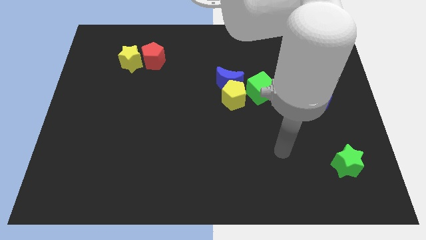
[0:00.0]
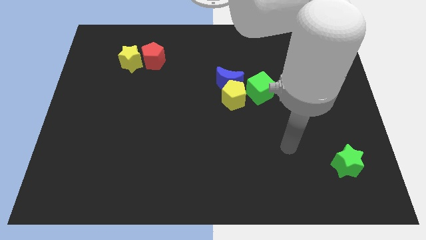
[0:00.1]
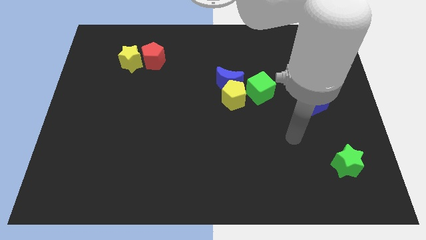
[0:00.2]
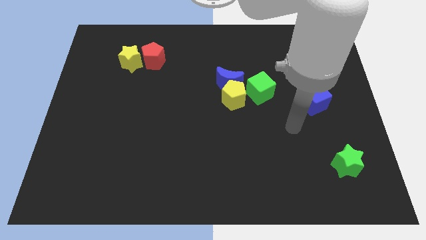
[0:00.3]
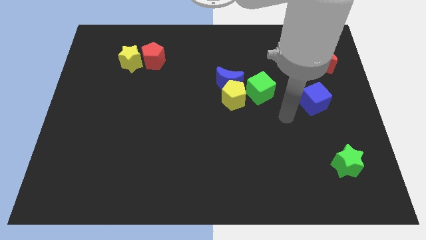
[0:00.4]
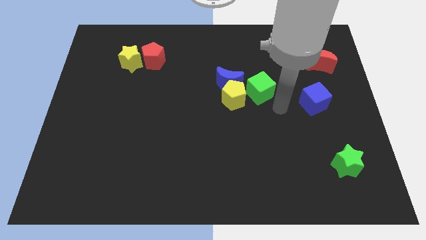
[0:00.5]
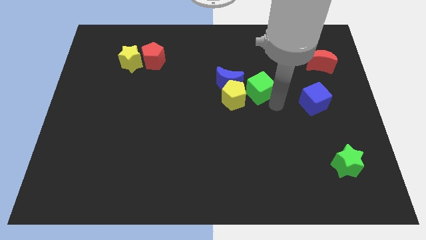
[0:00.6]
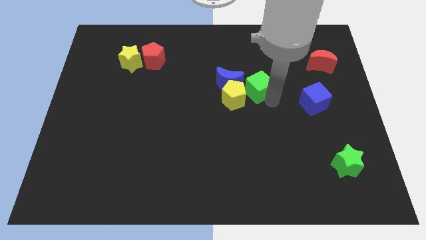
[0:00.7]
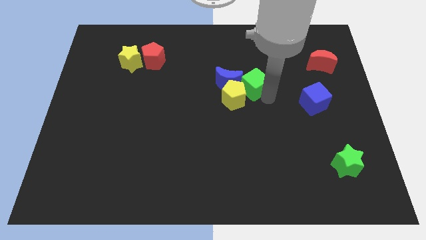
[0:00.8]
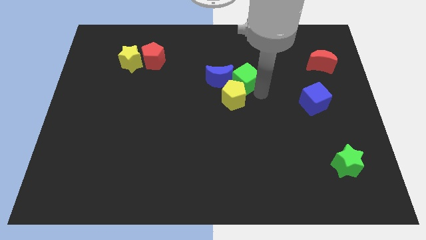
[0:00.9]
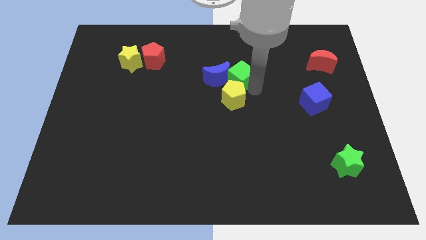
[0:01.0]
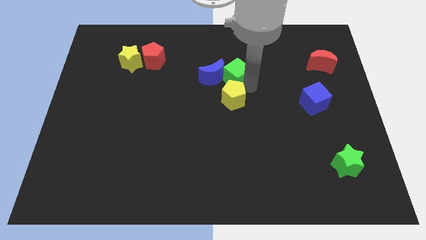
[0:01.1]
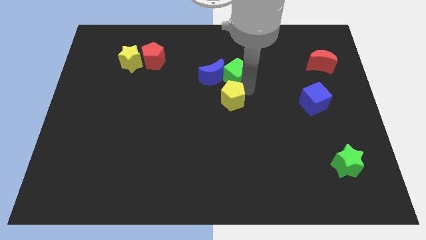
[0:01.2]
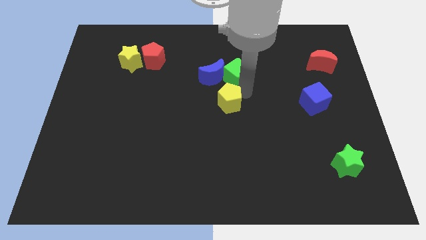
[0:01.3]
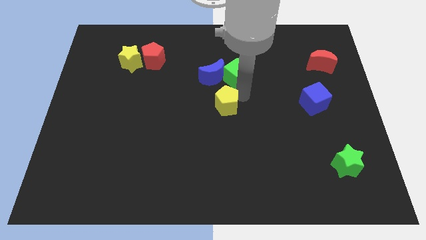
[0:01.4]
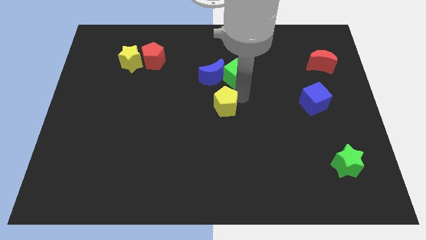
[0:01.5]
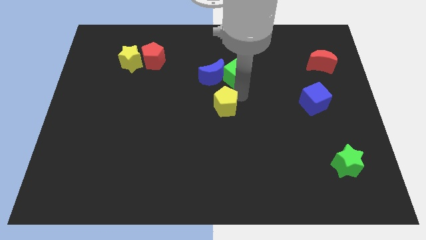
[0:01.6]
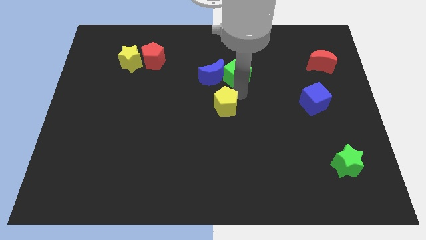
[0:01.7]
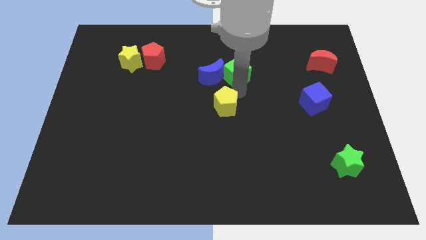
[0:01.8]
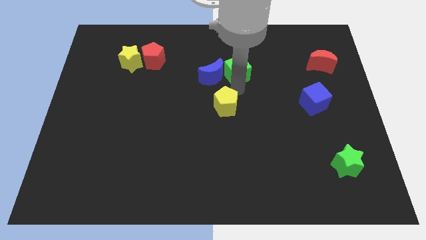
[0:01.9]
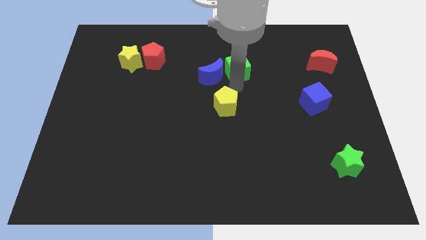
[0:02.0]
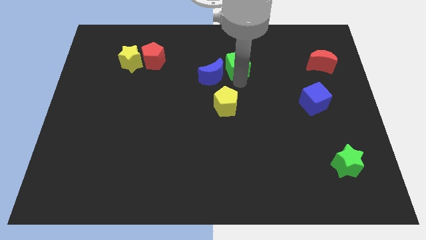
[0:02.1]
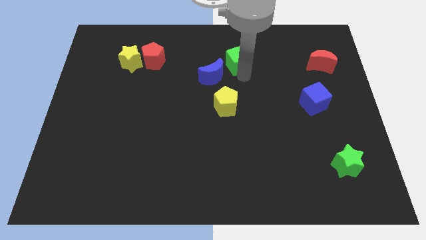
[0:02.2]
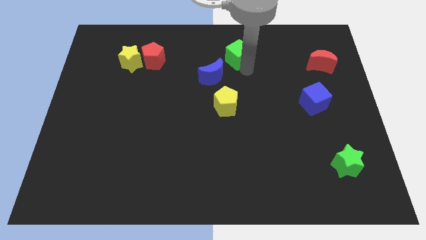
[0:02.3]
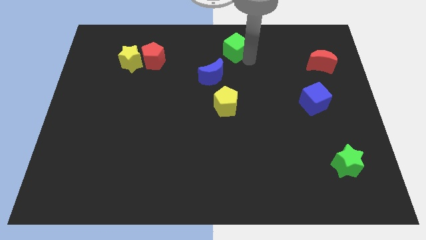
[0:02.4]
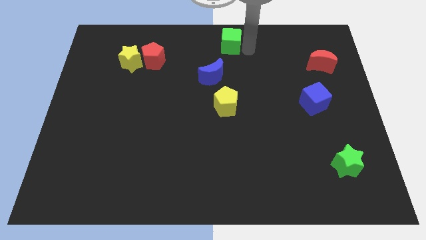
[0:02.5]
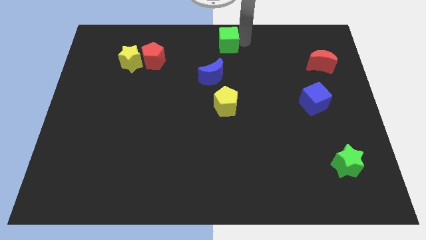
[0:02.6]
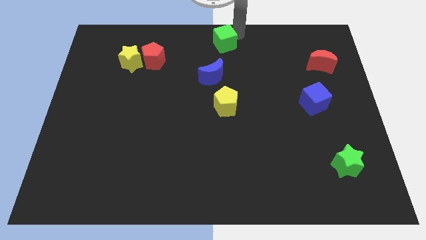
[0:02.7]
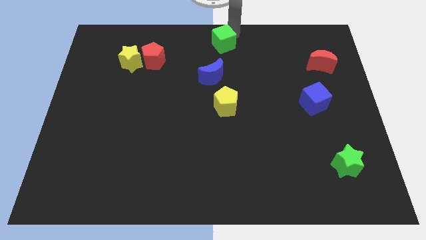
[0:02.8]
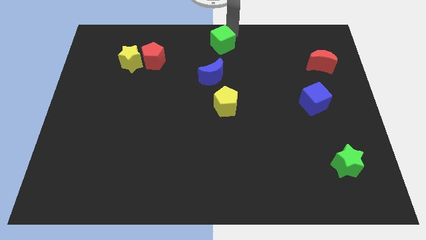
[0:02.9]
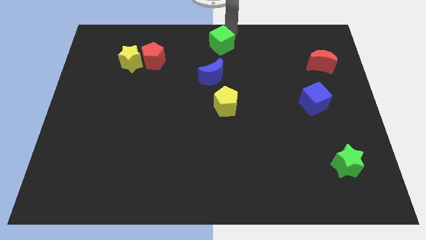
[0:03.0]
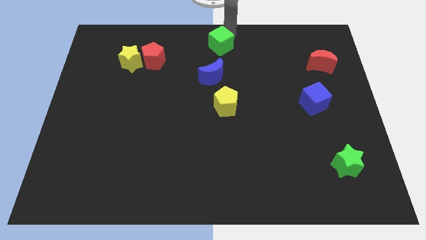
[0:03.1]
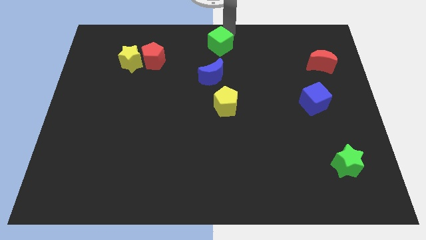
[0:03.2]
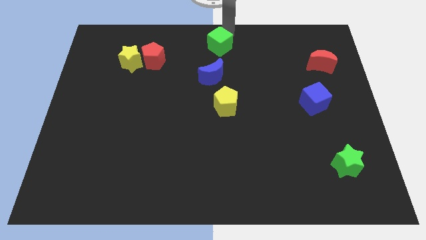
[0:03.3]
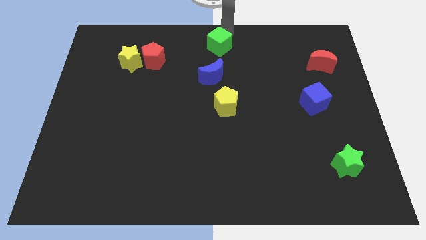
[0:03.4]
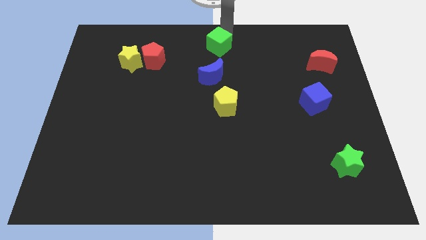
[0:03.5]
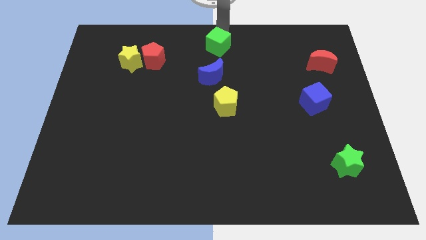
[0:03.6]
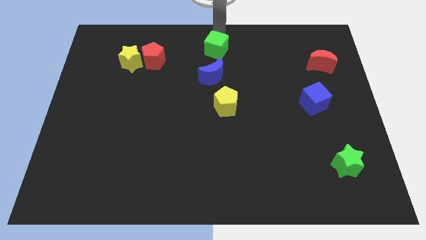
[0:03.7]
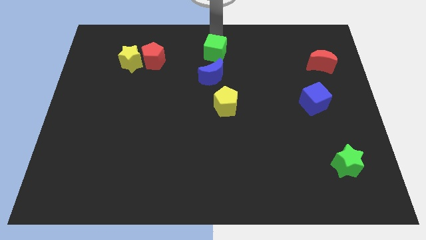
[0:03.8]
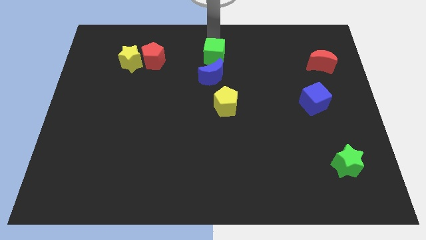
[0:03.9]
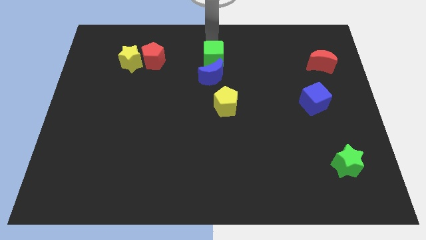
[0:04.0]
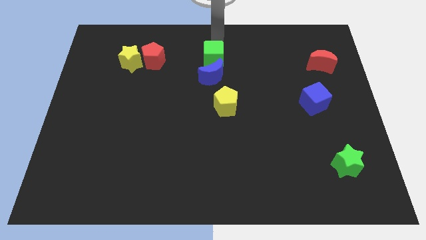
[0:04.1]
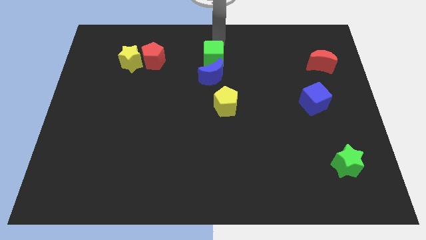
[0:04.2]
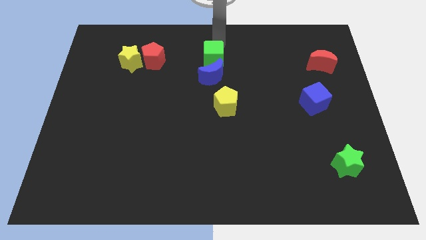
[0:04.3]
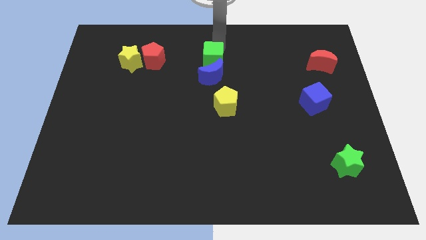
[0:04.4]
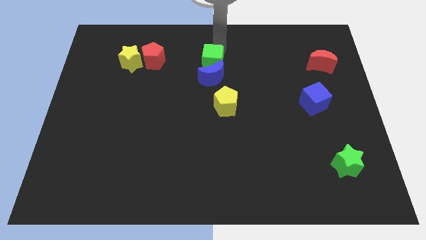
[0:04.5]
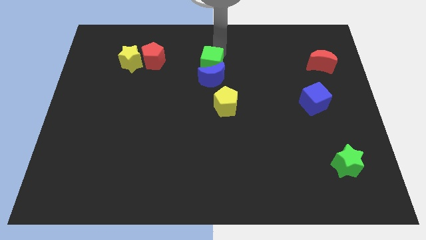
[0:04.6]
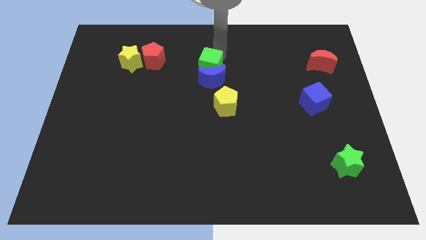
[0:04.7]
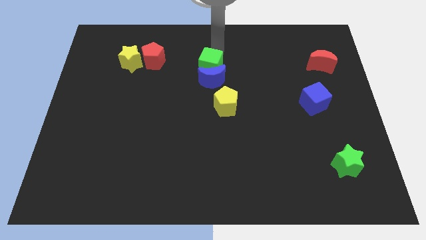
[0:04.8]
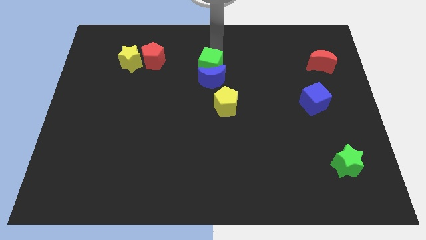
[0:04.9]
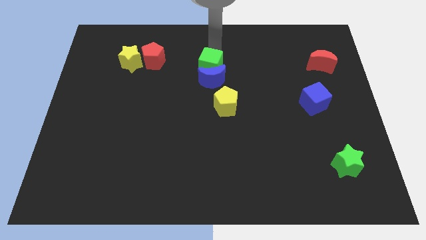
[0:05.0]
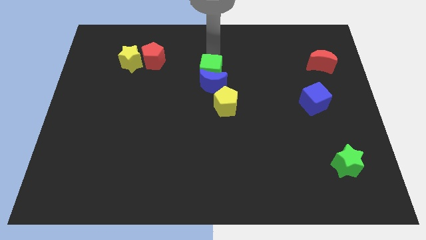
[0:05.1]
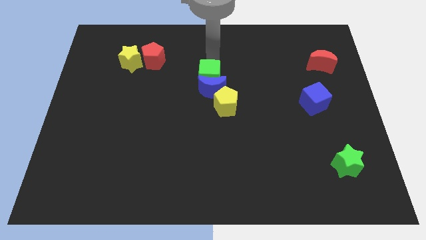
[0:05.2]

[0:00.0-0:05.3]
put the green cube to the top left of the yellow pentagon

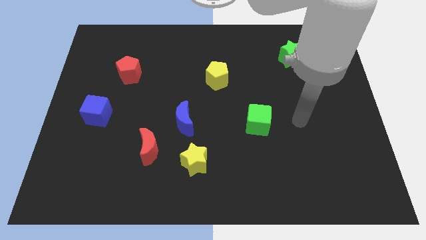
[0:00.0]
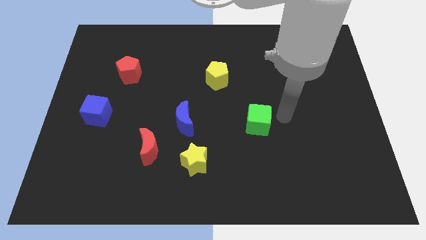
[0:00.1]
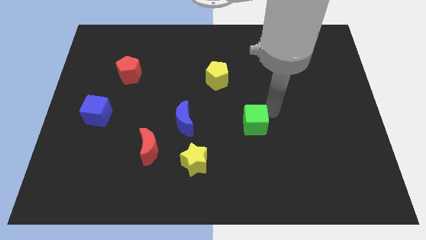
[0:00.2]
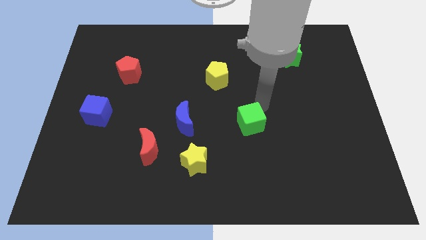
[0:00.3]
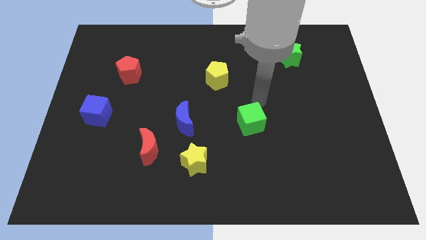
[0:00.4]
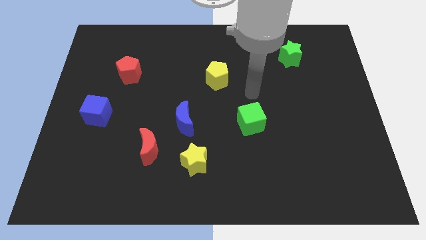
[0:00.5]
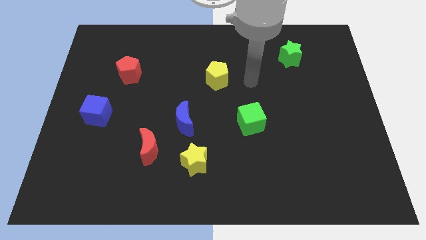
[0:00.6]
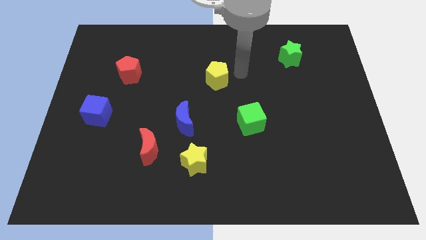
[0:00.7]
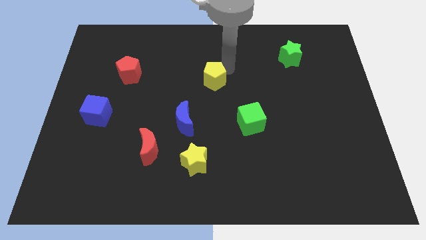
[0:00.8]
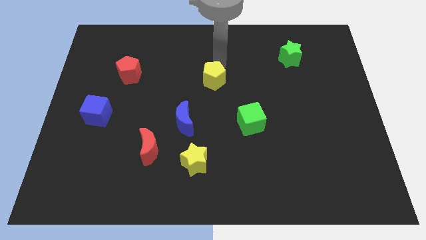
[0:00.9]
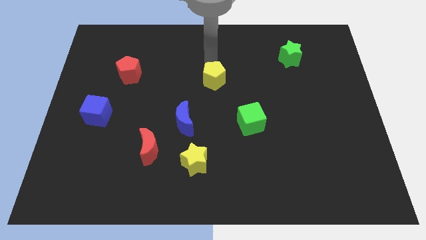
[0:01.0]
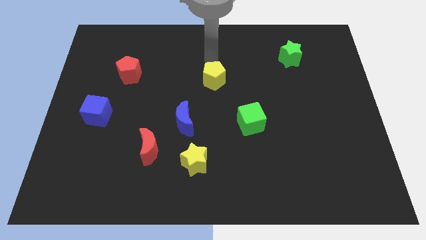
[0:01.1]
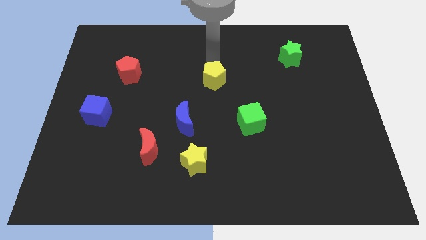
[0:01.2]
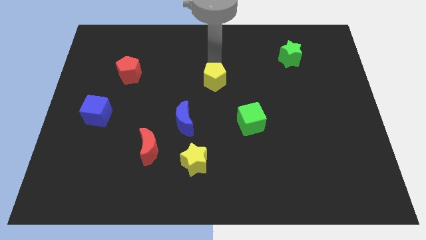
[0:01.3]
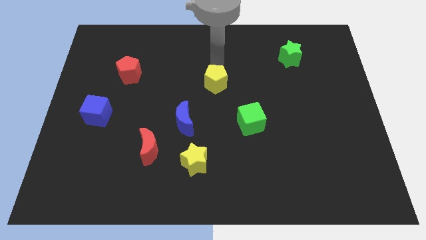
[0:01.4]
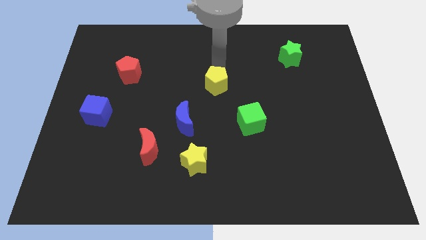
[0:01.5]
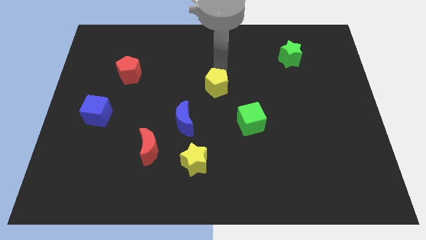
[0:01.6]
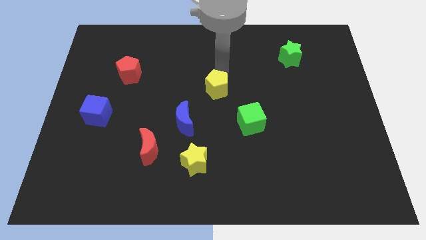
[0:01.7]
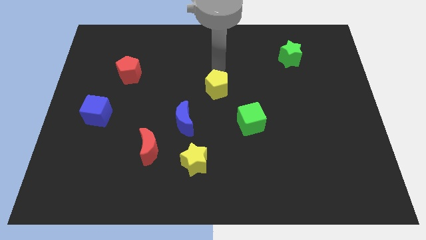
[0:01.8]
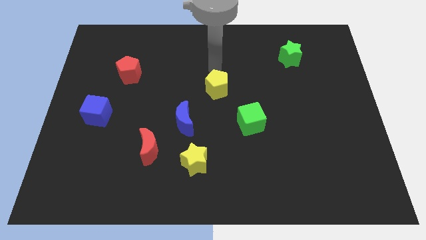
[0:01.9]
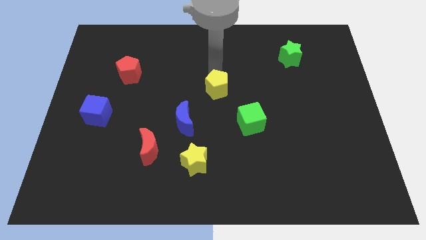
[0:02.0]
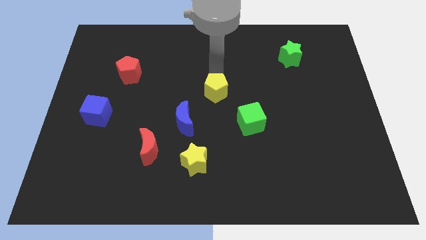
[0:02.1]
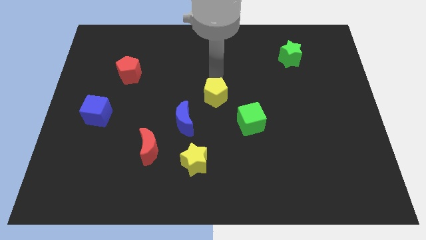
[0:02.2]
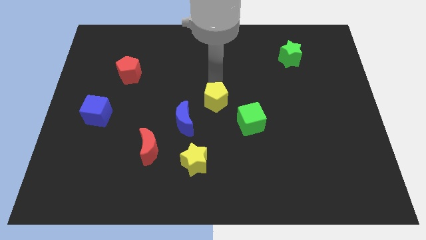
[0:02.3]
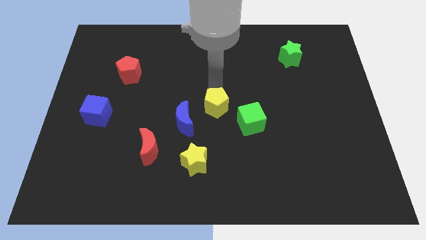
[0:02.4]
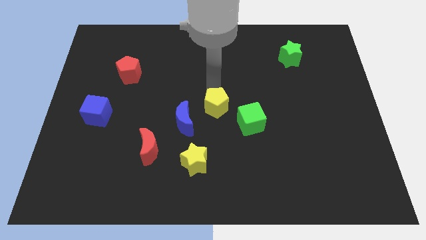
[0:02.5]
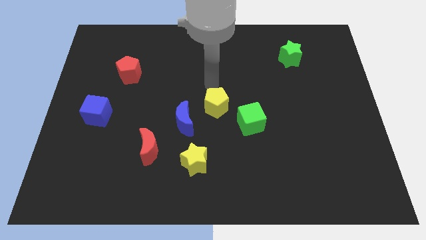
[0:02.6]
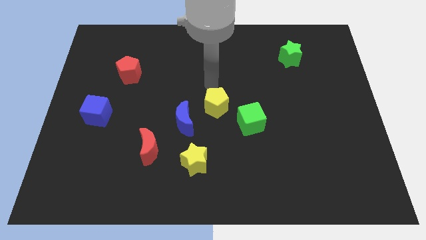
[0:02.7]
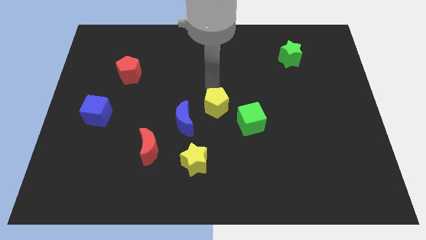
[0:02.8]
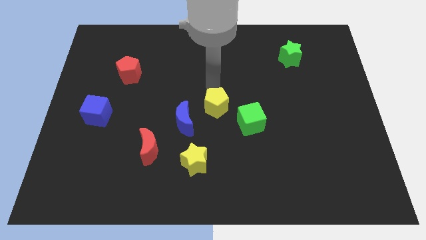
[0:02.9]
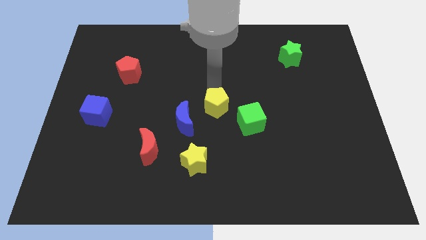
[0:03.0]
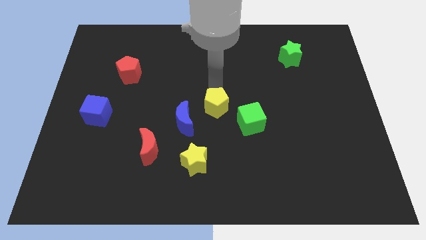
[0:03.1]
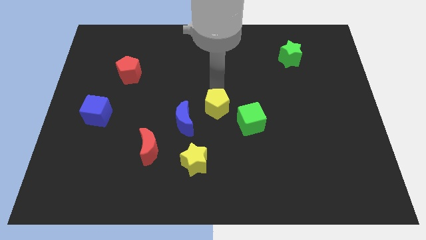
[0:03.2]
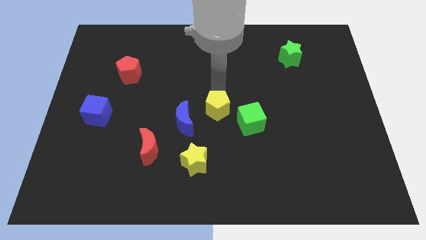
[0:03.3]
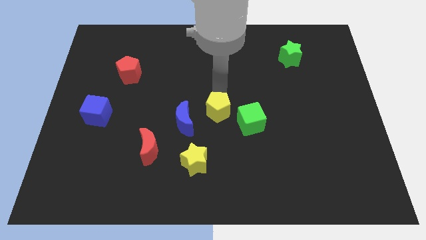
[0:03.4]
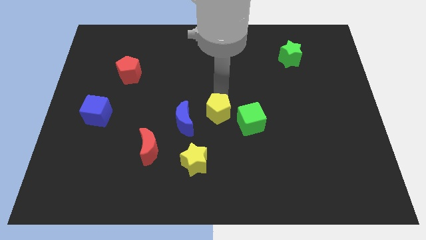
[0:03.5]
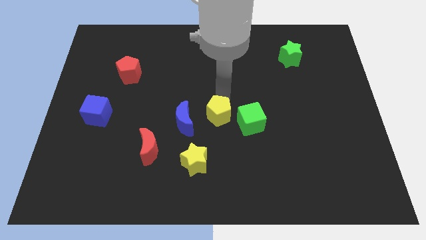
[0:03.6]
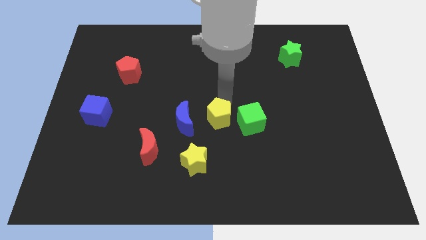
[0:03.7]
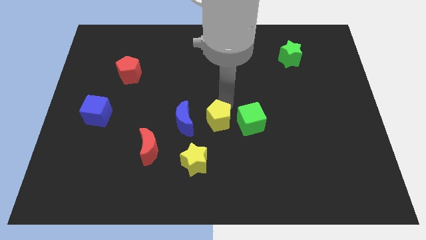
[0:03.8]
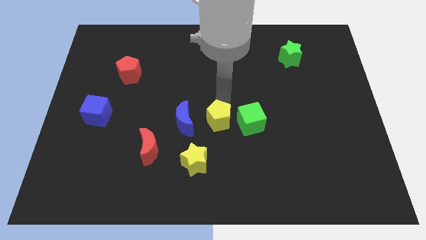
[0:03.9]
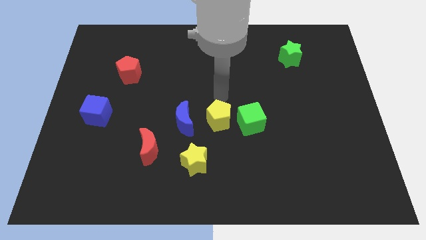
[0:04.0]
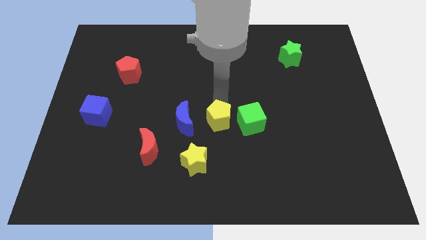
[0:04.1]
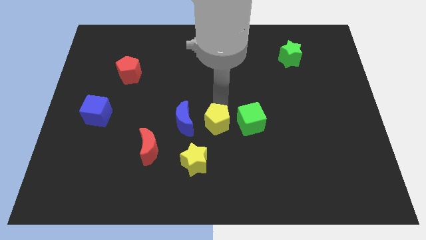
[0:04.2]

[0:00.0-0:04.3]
put the yellow pentagon diagonally up and to the right of the yellow star
